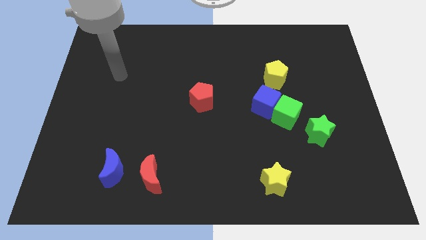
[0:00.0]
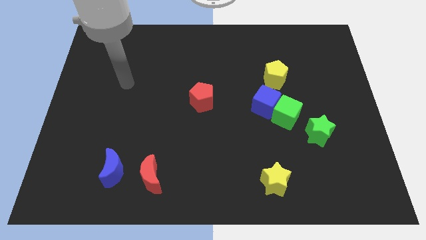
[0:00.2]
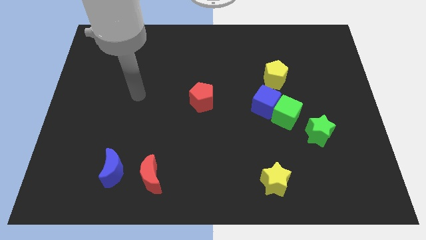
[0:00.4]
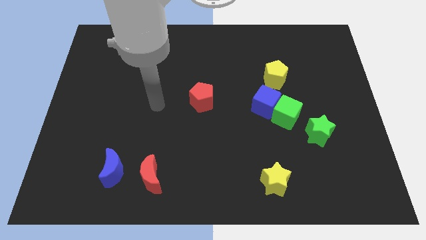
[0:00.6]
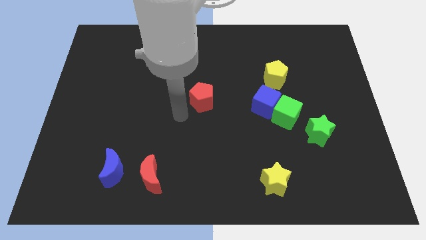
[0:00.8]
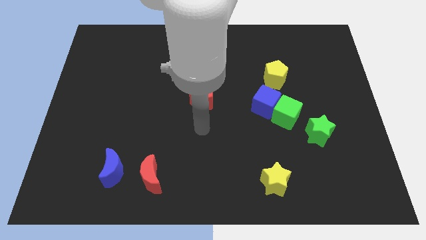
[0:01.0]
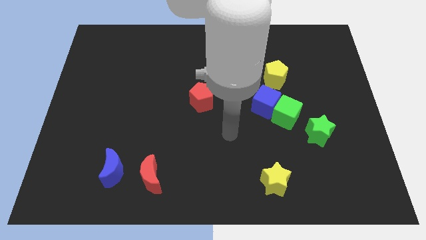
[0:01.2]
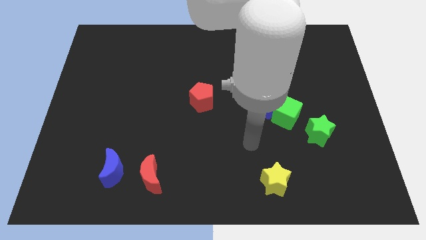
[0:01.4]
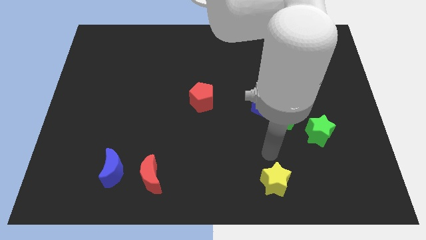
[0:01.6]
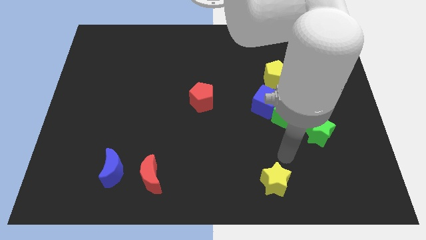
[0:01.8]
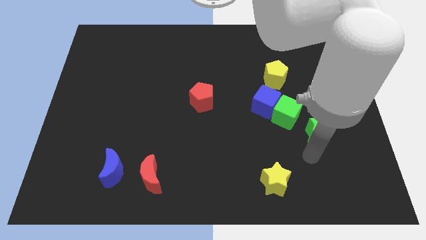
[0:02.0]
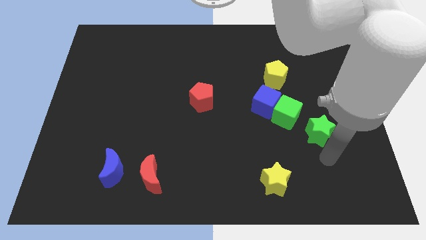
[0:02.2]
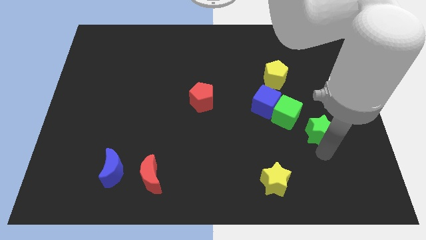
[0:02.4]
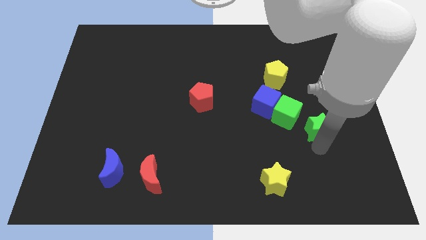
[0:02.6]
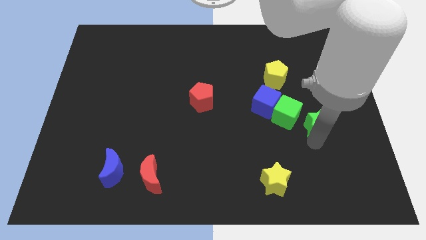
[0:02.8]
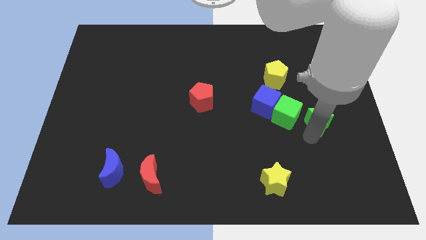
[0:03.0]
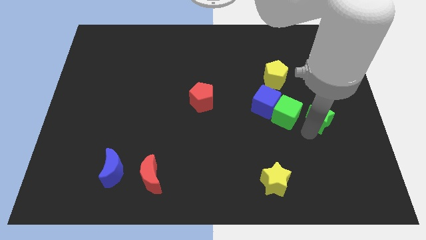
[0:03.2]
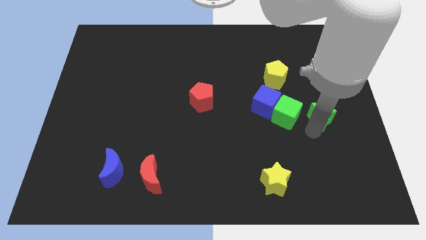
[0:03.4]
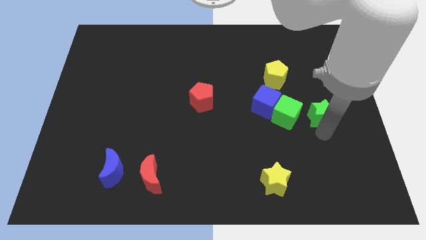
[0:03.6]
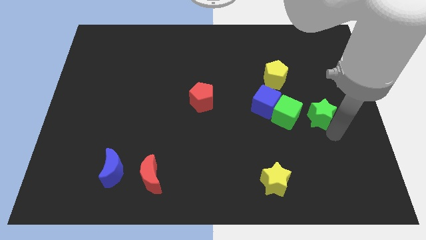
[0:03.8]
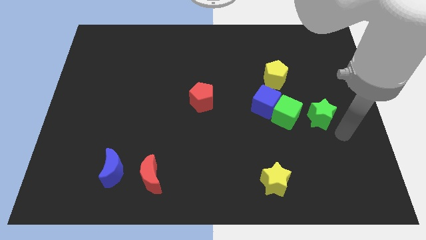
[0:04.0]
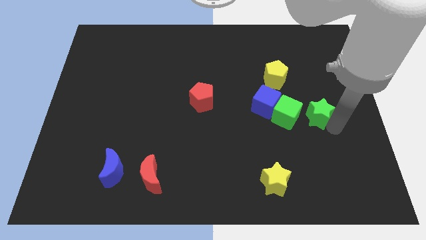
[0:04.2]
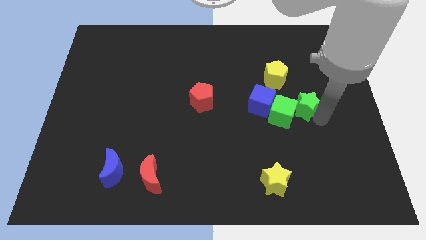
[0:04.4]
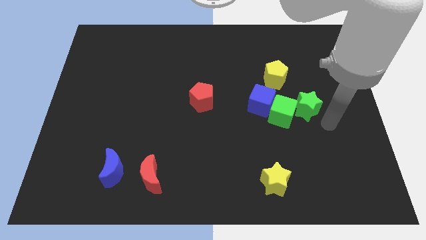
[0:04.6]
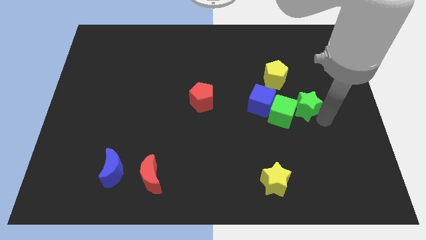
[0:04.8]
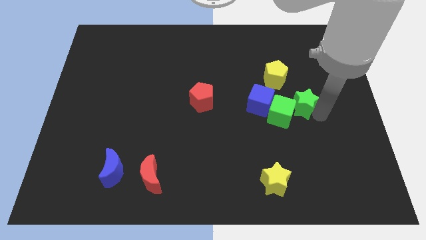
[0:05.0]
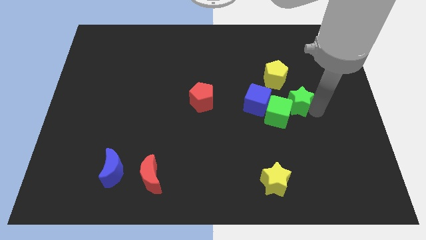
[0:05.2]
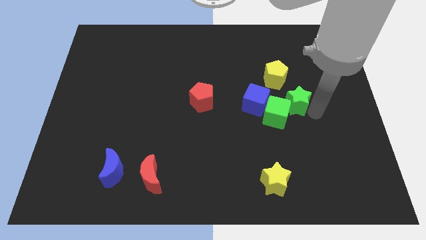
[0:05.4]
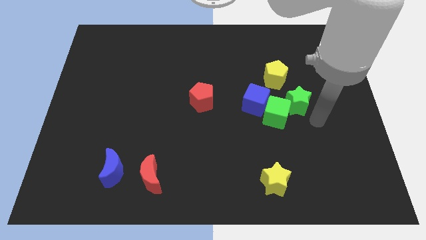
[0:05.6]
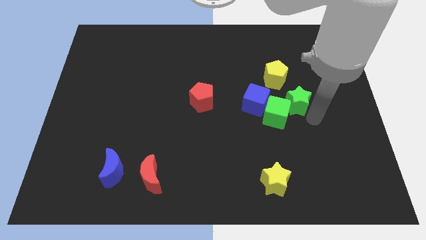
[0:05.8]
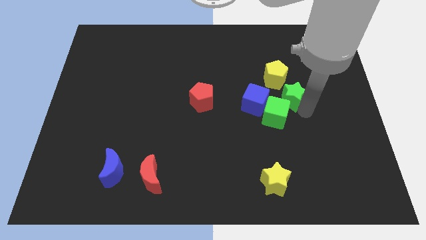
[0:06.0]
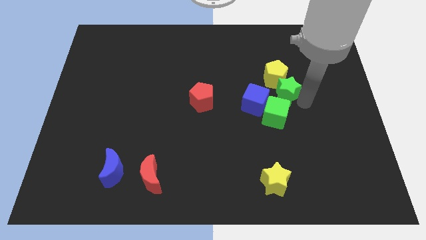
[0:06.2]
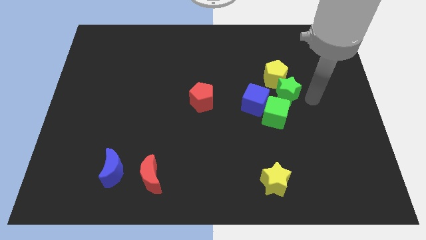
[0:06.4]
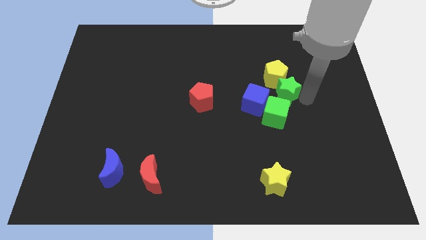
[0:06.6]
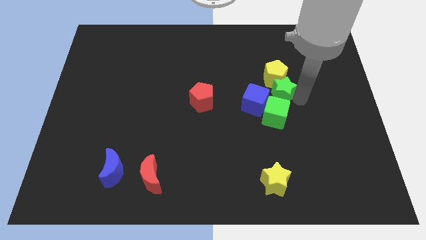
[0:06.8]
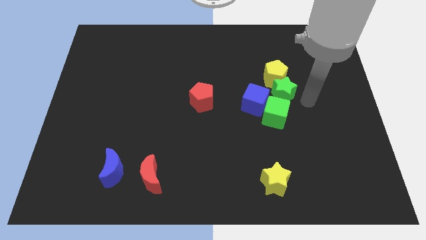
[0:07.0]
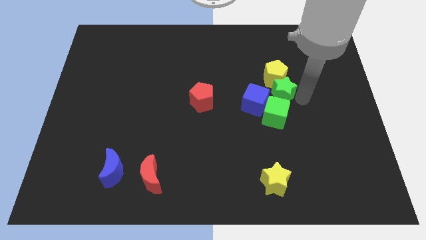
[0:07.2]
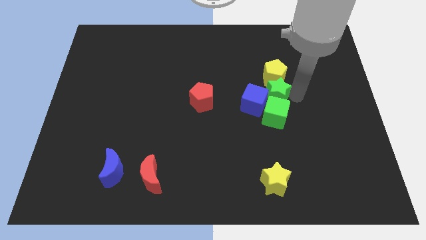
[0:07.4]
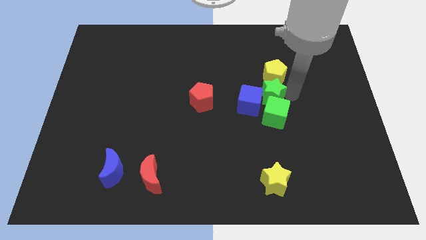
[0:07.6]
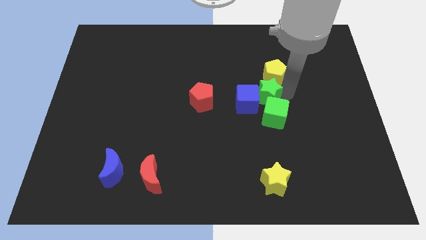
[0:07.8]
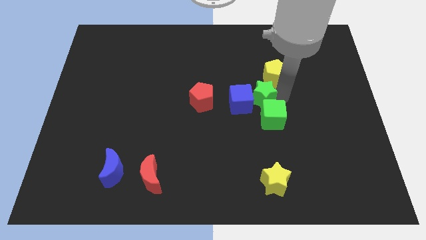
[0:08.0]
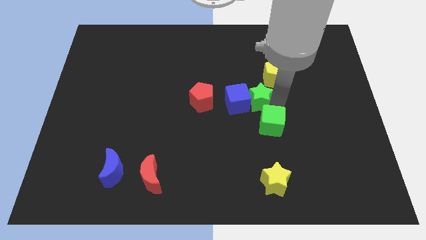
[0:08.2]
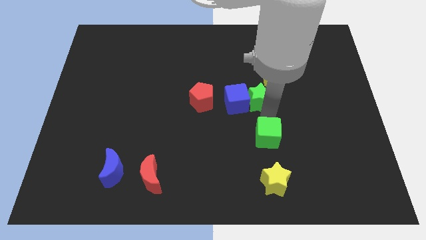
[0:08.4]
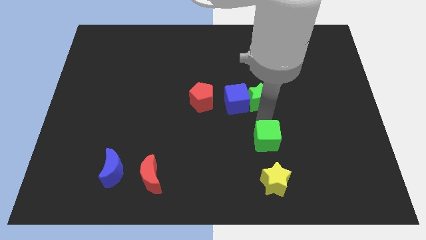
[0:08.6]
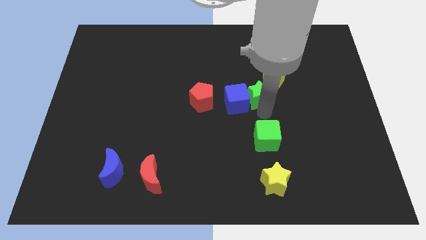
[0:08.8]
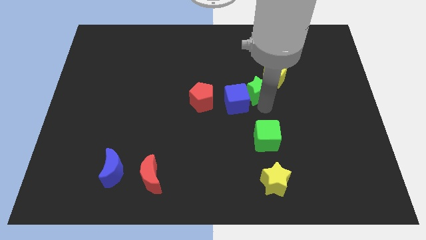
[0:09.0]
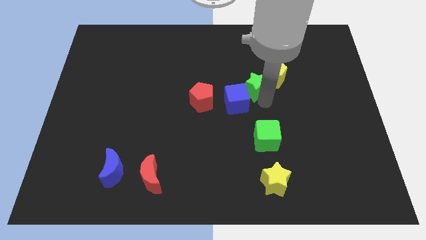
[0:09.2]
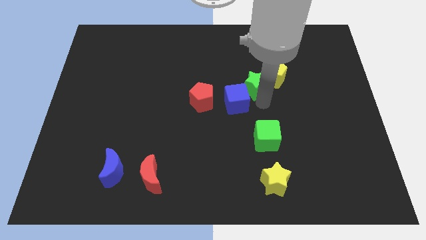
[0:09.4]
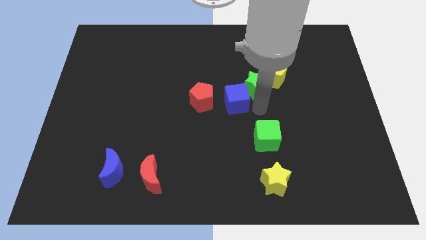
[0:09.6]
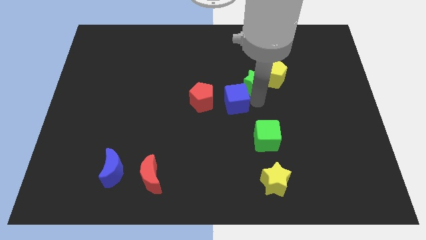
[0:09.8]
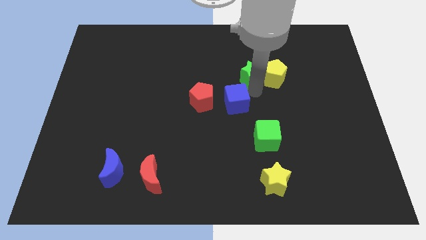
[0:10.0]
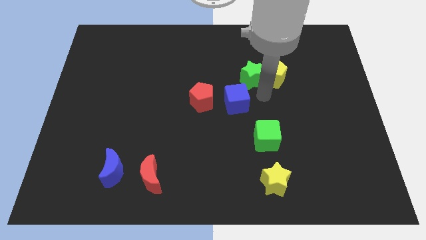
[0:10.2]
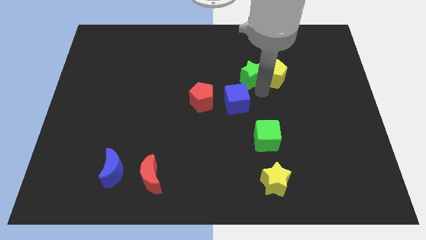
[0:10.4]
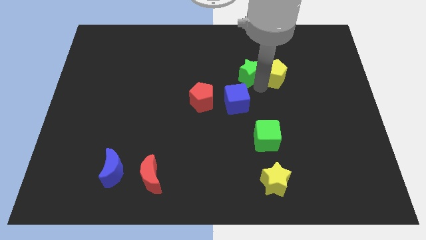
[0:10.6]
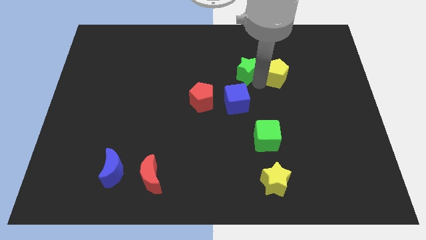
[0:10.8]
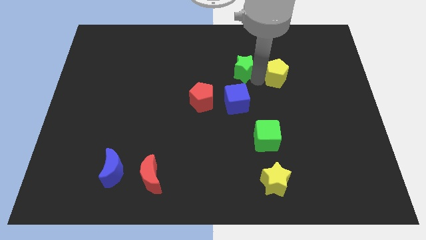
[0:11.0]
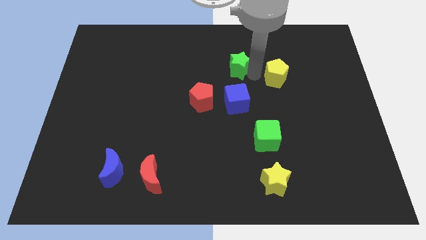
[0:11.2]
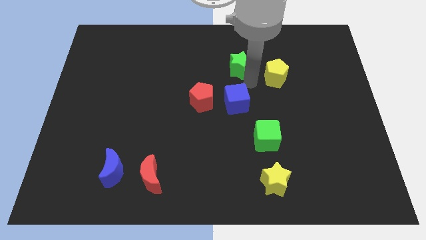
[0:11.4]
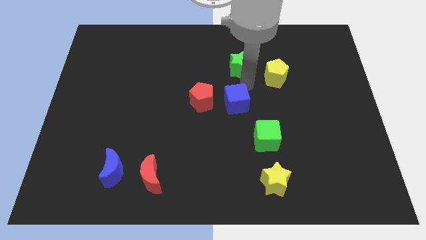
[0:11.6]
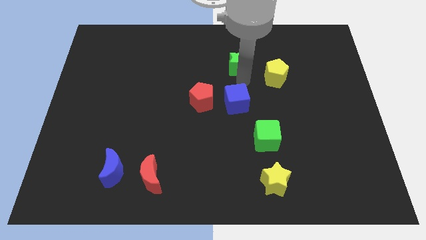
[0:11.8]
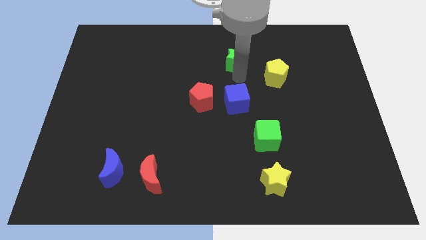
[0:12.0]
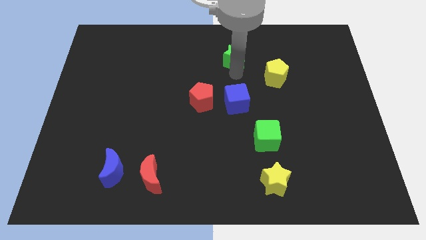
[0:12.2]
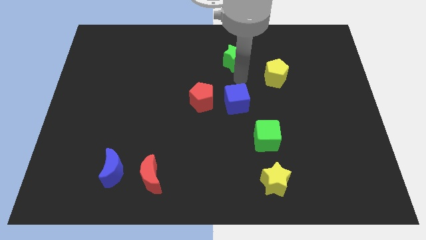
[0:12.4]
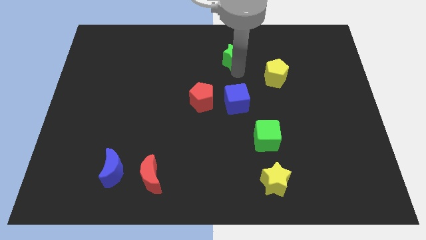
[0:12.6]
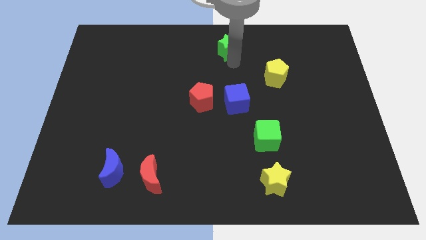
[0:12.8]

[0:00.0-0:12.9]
put the green star to the towards your base
